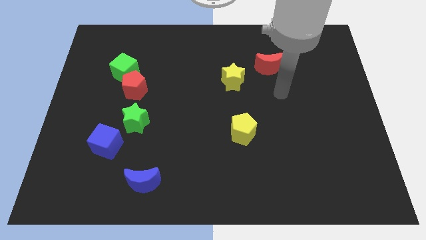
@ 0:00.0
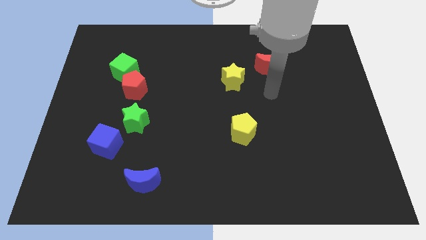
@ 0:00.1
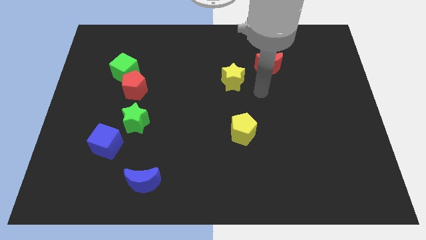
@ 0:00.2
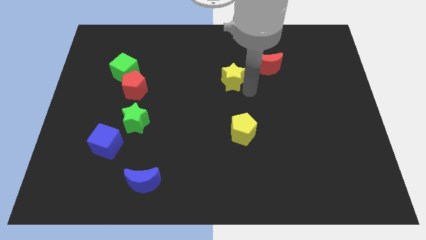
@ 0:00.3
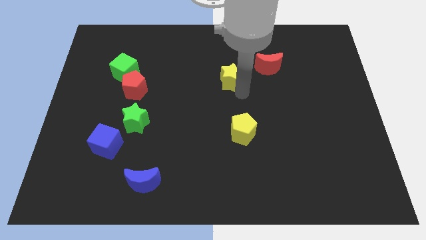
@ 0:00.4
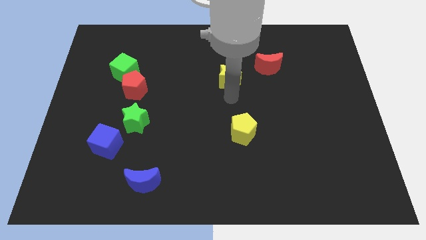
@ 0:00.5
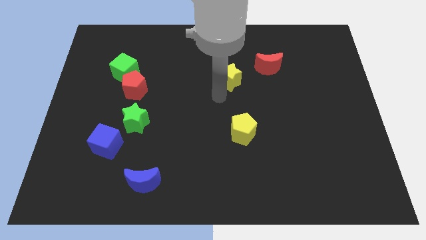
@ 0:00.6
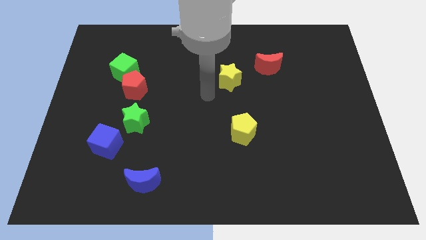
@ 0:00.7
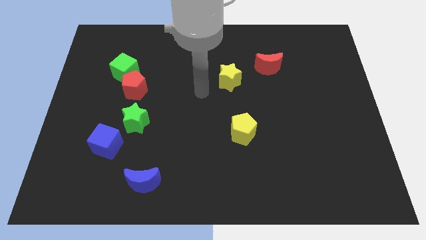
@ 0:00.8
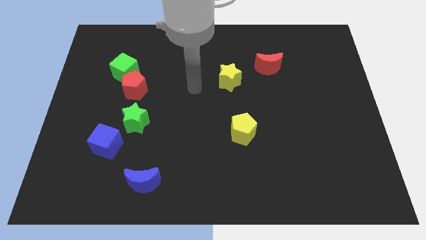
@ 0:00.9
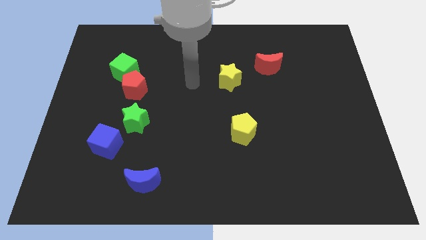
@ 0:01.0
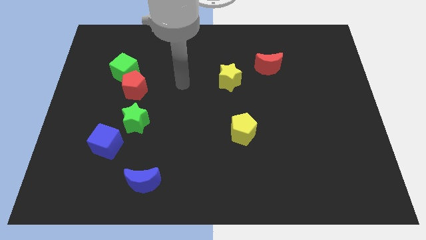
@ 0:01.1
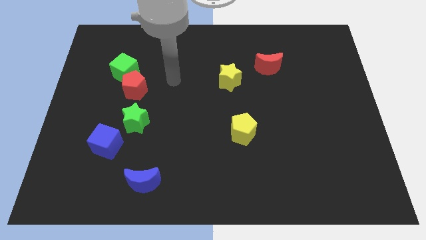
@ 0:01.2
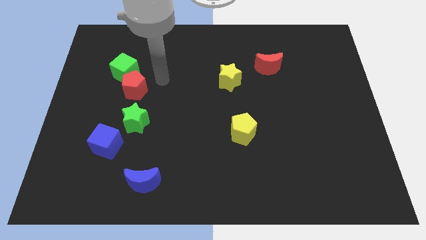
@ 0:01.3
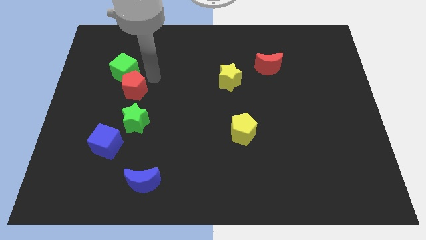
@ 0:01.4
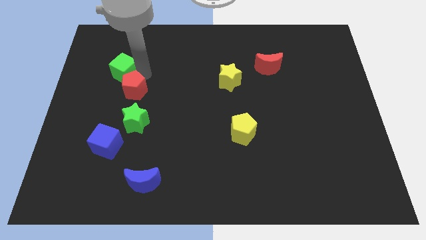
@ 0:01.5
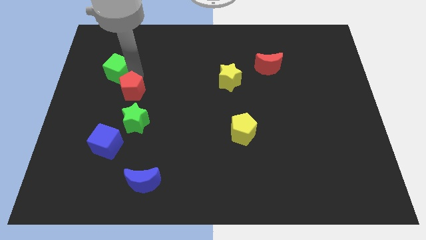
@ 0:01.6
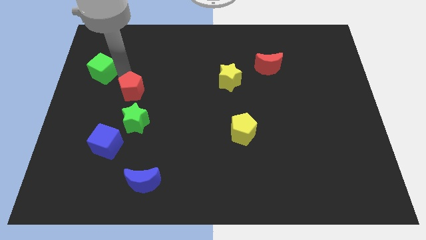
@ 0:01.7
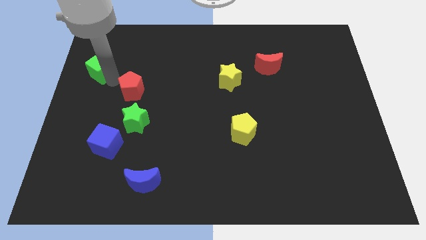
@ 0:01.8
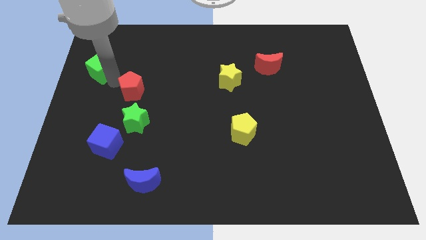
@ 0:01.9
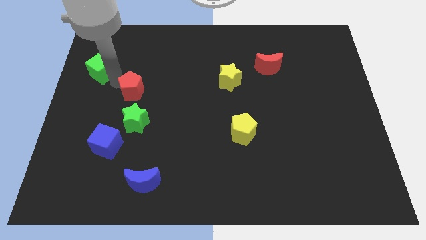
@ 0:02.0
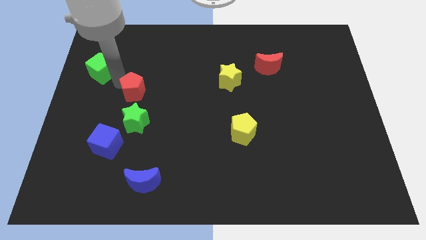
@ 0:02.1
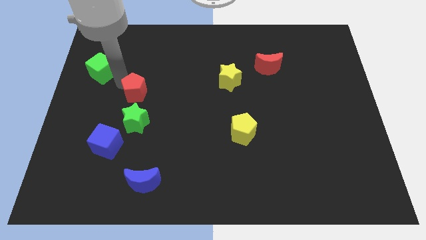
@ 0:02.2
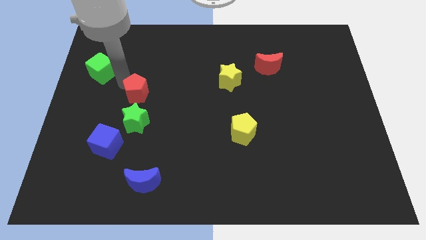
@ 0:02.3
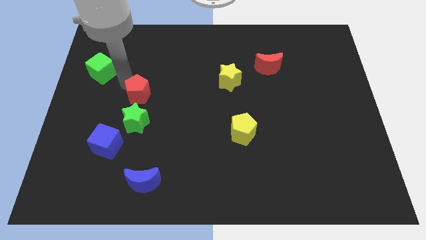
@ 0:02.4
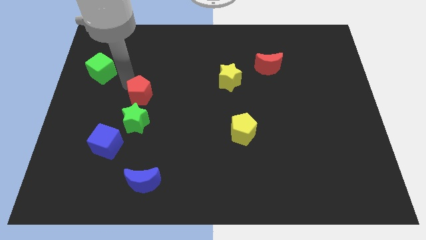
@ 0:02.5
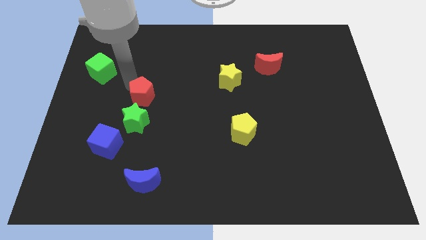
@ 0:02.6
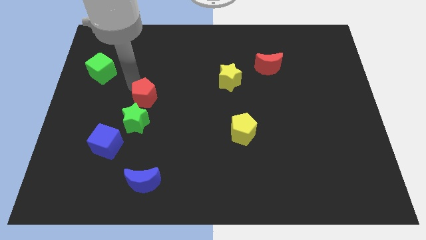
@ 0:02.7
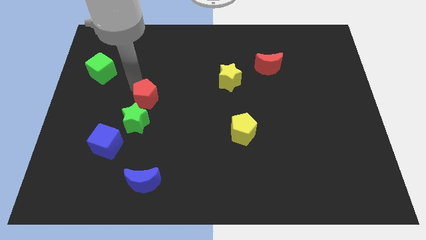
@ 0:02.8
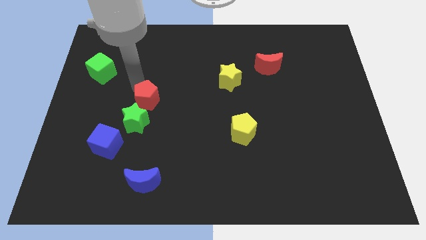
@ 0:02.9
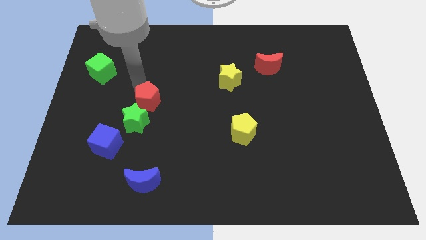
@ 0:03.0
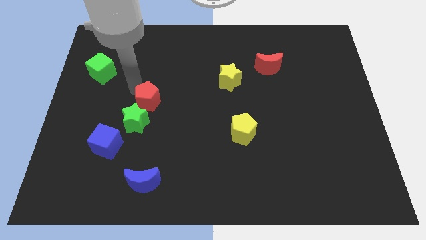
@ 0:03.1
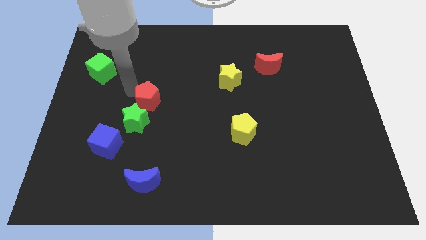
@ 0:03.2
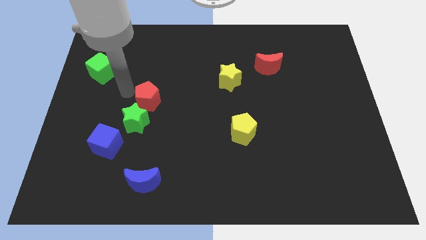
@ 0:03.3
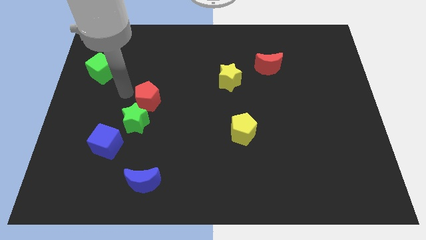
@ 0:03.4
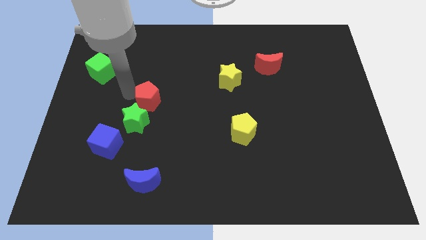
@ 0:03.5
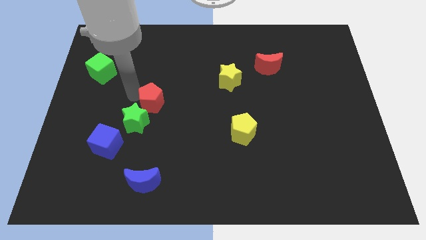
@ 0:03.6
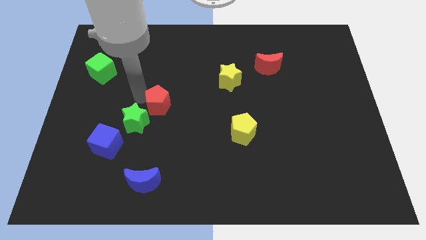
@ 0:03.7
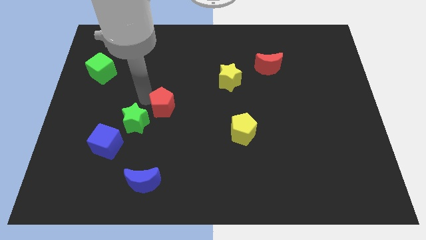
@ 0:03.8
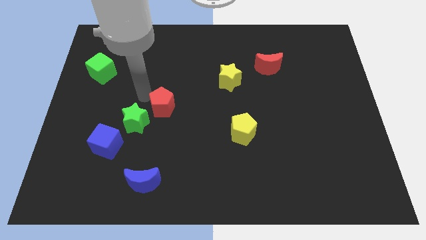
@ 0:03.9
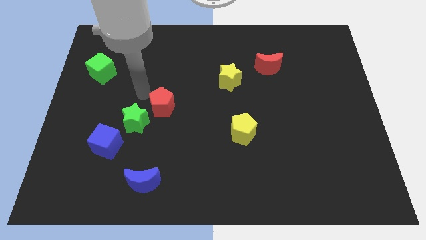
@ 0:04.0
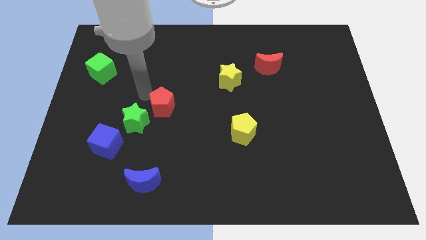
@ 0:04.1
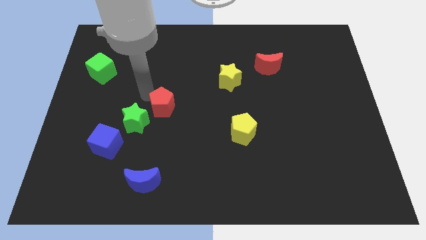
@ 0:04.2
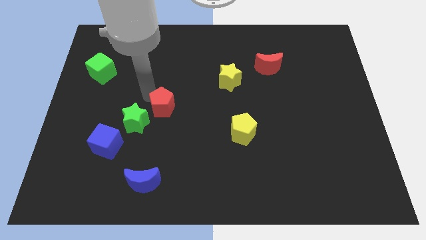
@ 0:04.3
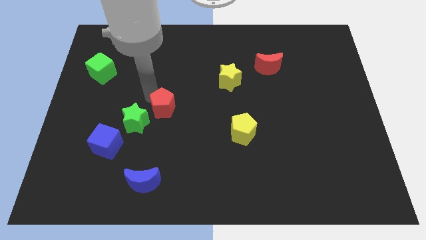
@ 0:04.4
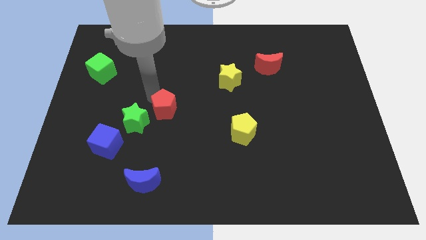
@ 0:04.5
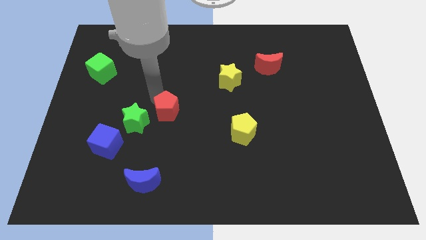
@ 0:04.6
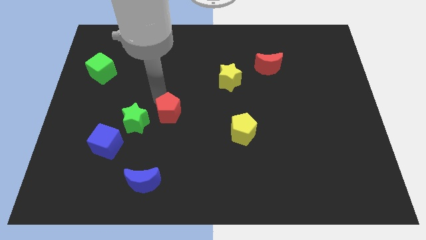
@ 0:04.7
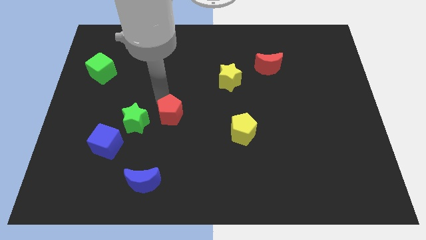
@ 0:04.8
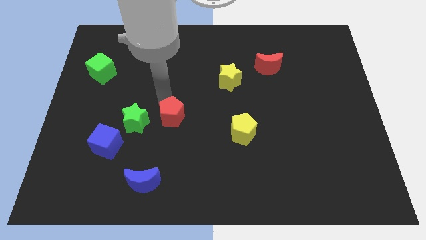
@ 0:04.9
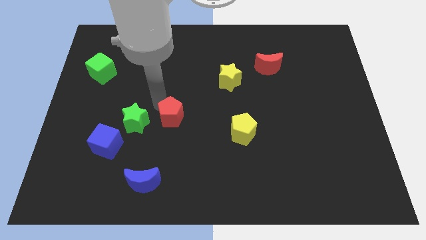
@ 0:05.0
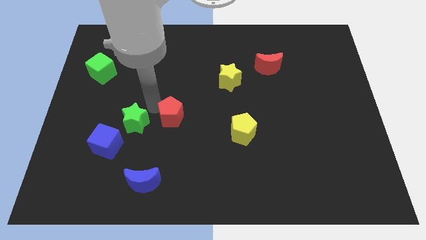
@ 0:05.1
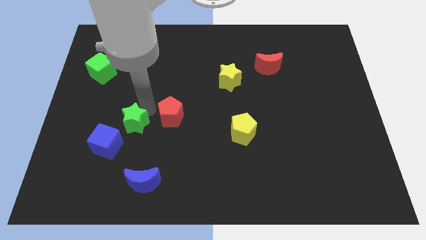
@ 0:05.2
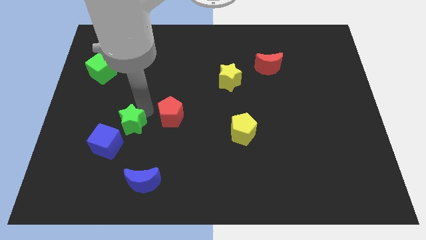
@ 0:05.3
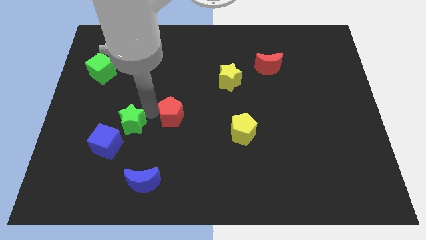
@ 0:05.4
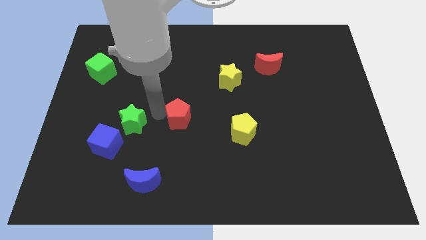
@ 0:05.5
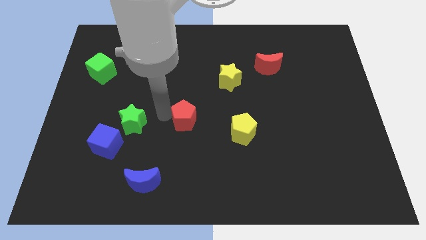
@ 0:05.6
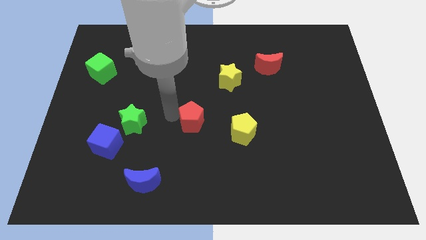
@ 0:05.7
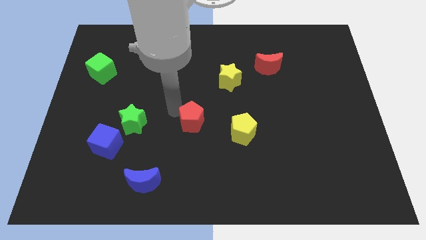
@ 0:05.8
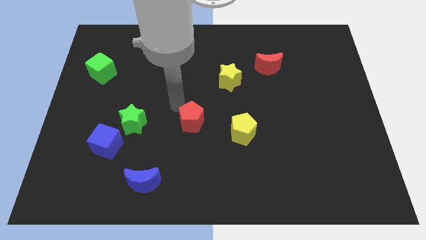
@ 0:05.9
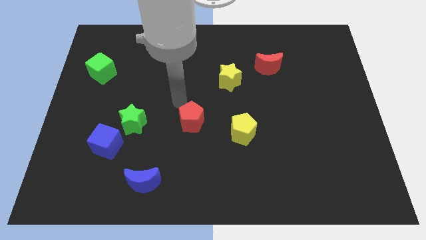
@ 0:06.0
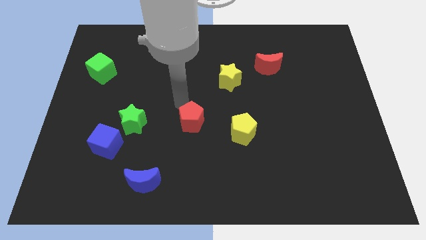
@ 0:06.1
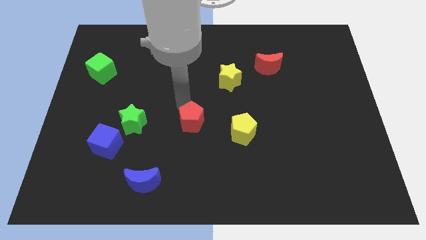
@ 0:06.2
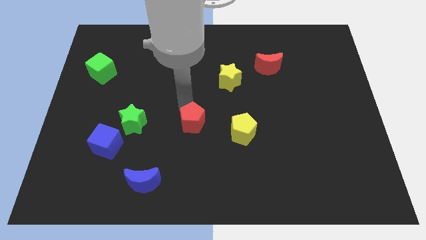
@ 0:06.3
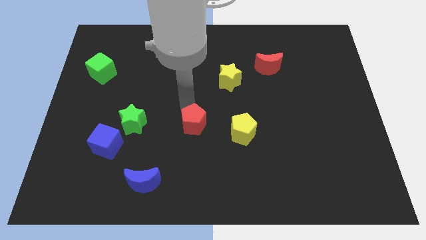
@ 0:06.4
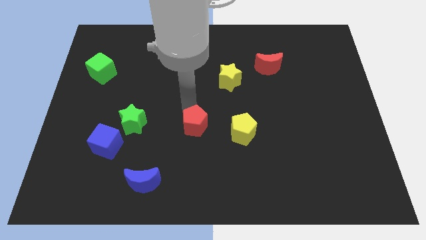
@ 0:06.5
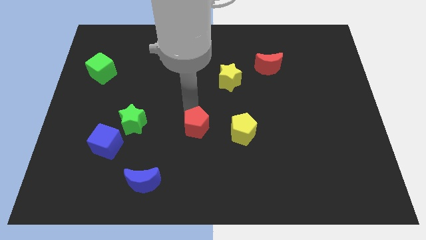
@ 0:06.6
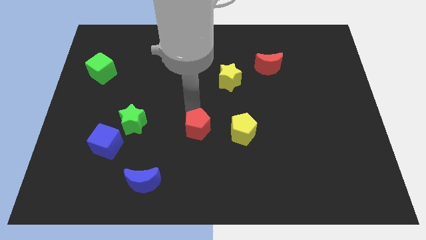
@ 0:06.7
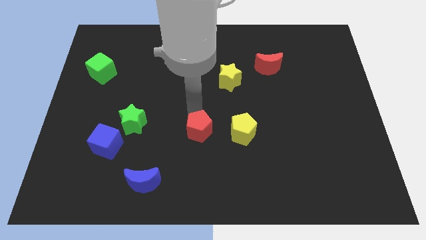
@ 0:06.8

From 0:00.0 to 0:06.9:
slide the red pentagon down and to the right

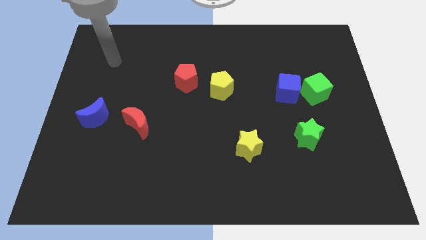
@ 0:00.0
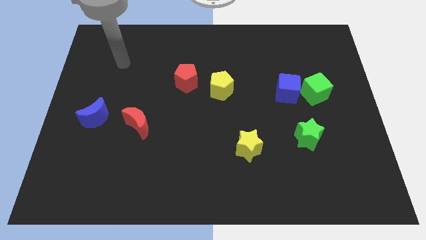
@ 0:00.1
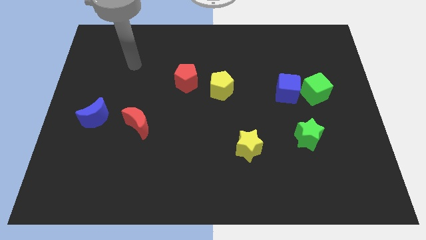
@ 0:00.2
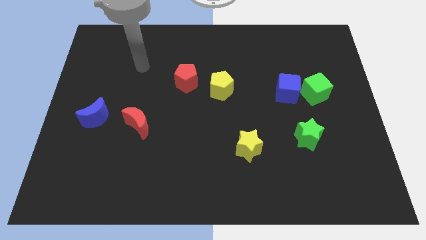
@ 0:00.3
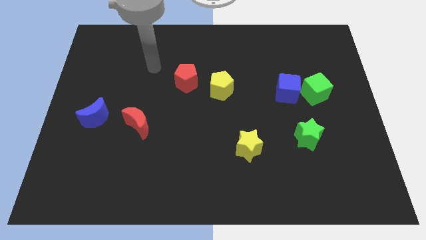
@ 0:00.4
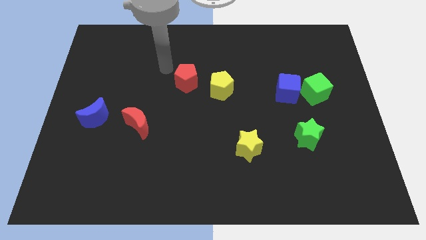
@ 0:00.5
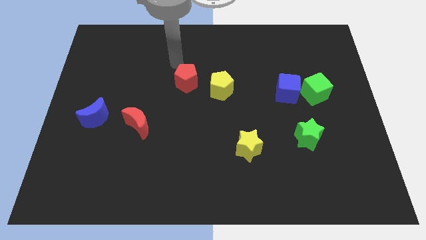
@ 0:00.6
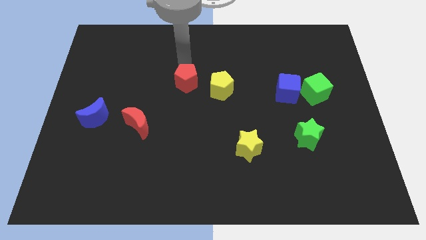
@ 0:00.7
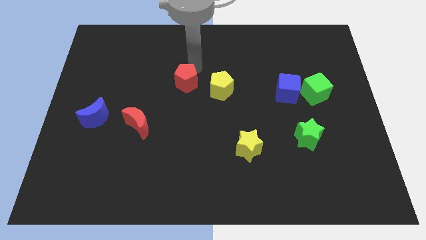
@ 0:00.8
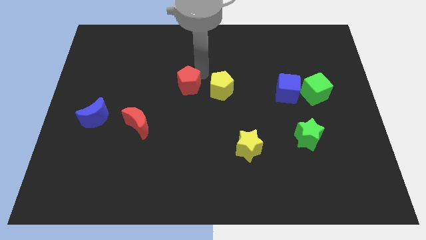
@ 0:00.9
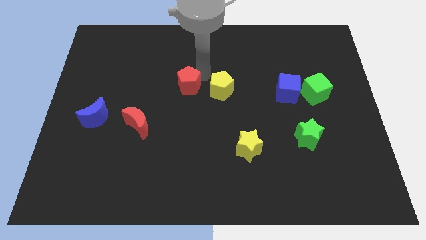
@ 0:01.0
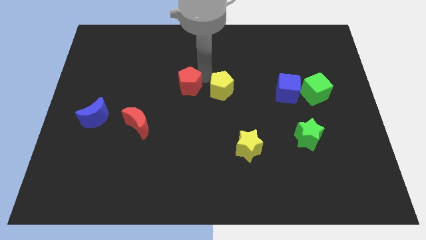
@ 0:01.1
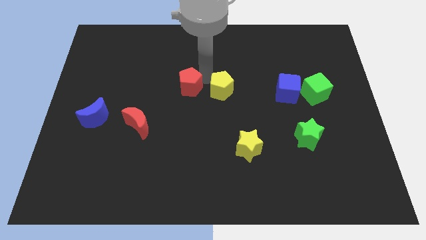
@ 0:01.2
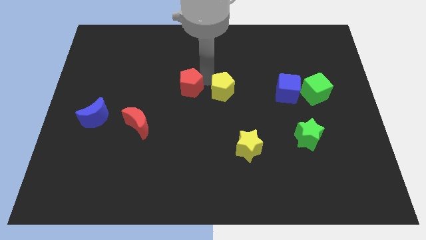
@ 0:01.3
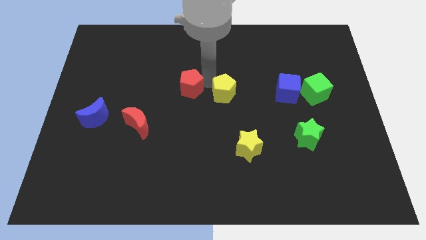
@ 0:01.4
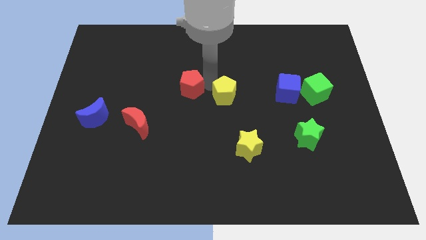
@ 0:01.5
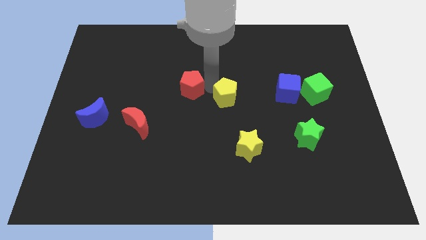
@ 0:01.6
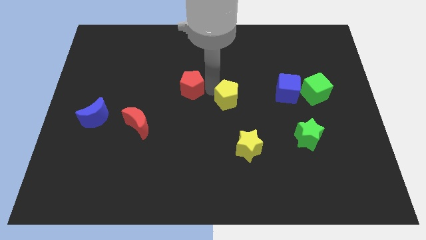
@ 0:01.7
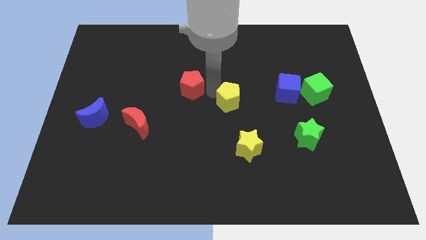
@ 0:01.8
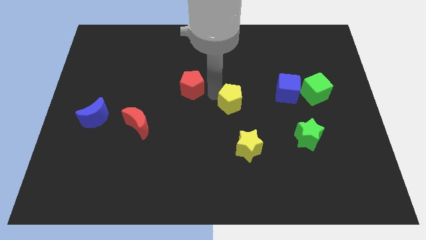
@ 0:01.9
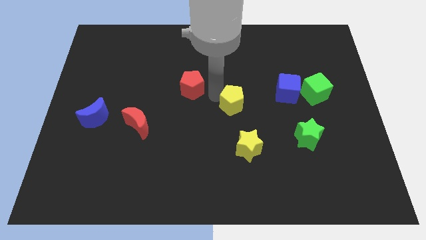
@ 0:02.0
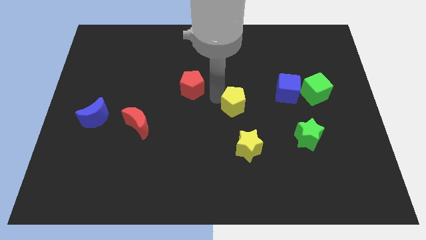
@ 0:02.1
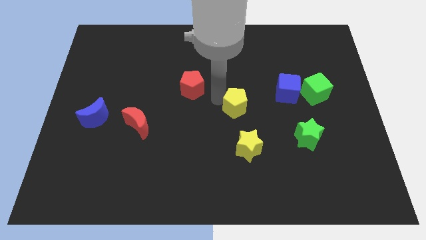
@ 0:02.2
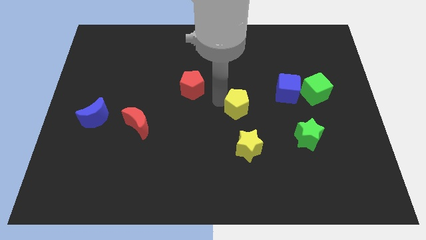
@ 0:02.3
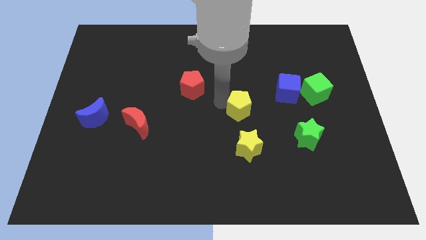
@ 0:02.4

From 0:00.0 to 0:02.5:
slightly move the yellow pentagon down and to the right
